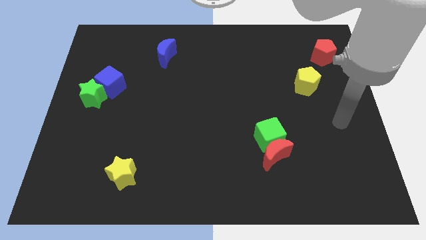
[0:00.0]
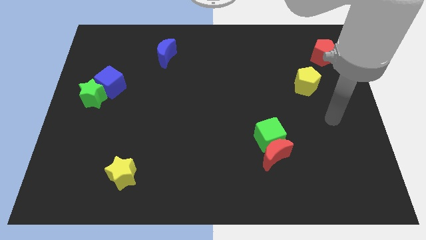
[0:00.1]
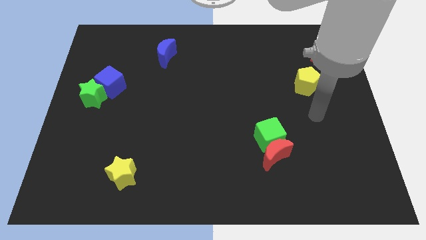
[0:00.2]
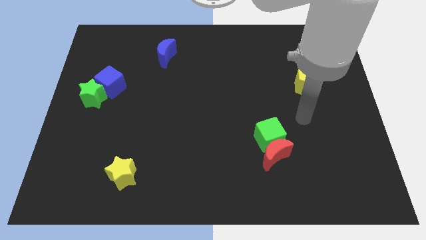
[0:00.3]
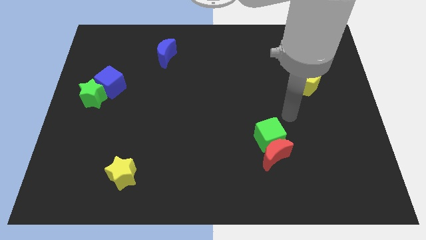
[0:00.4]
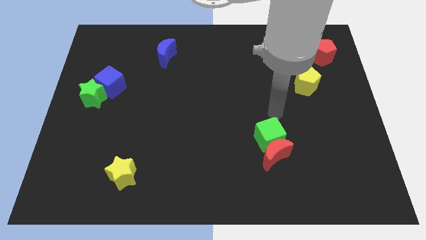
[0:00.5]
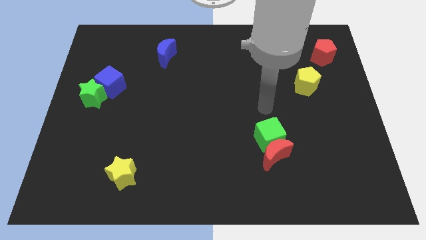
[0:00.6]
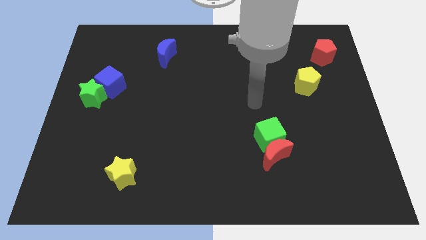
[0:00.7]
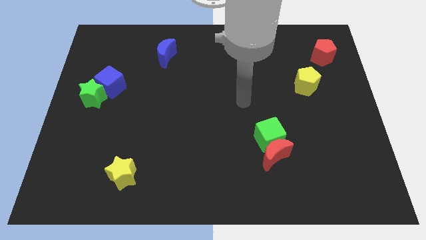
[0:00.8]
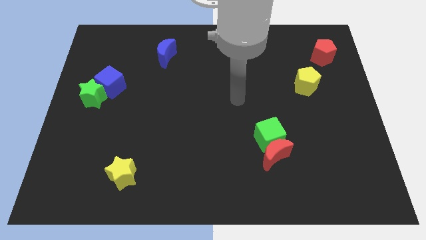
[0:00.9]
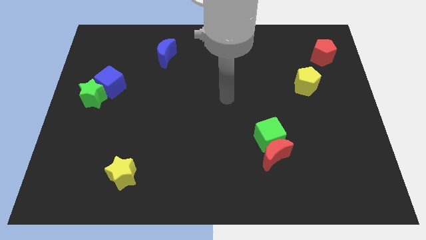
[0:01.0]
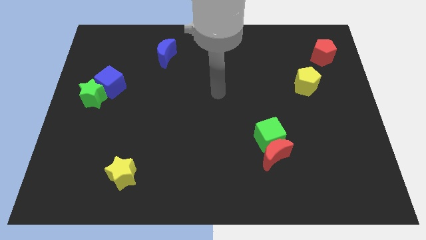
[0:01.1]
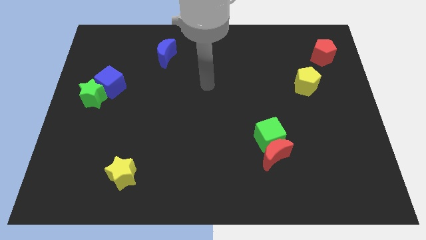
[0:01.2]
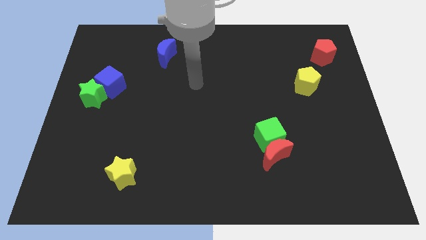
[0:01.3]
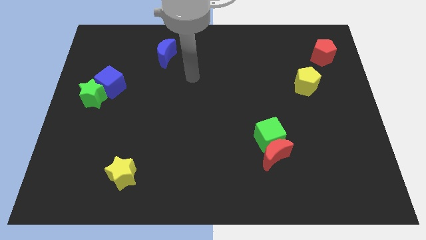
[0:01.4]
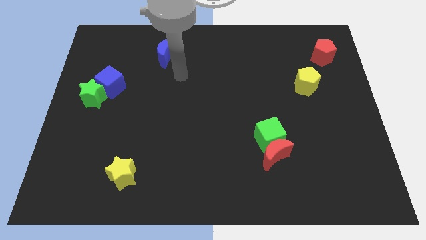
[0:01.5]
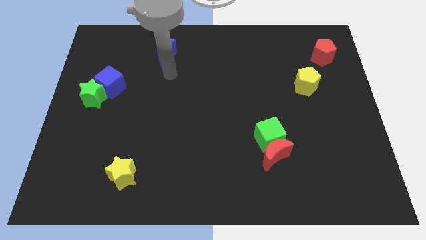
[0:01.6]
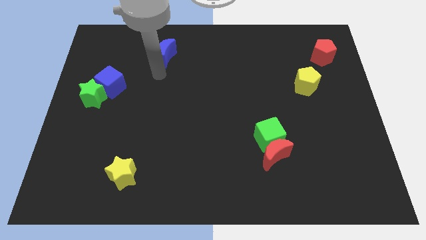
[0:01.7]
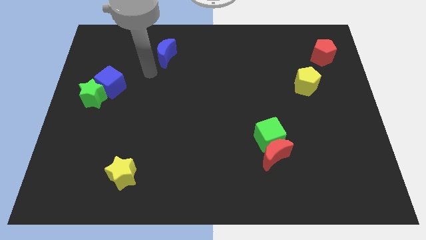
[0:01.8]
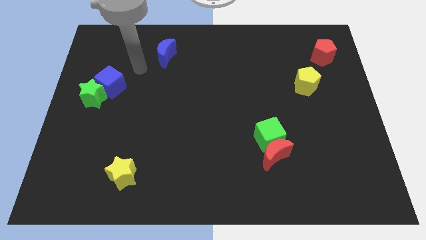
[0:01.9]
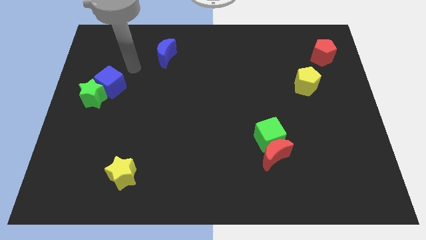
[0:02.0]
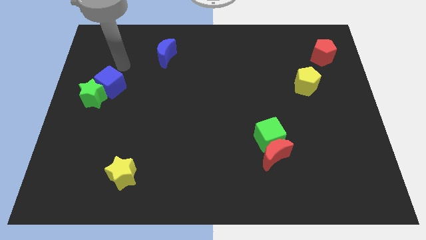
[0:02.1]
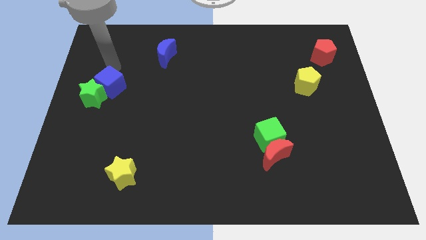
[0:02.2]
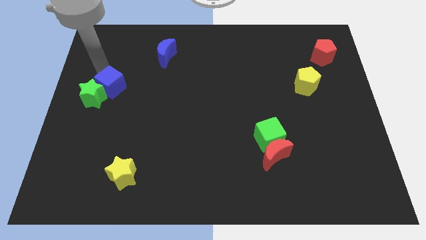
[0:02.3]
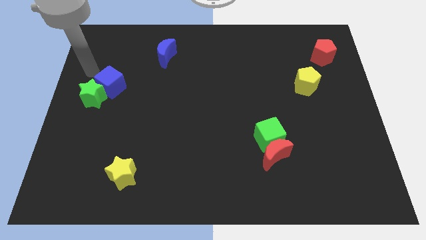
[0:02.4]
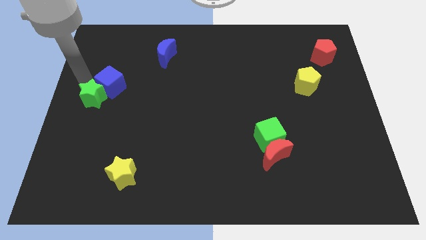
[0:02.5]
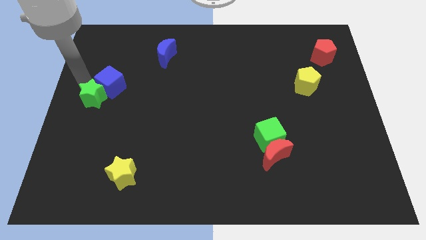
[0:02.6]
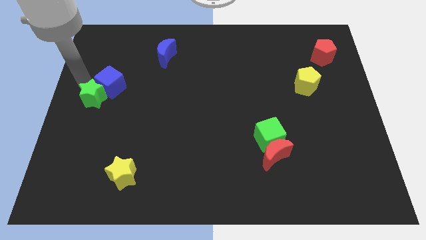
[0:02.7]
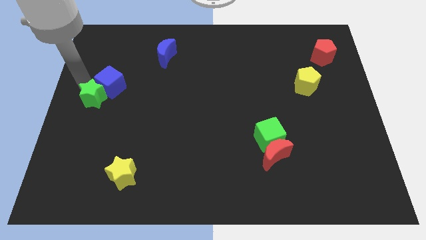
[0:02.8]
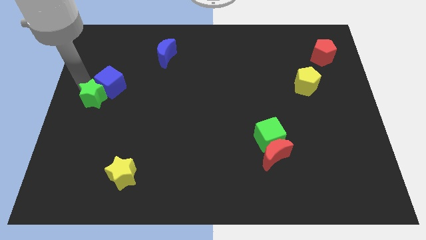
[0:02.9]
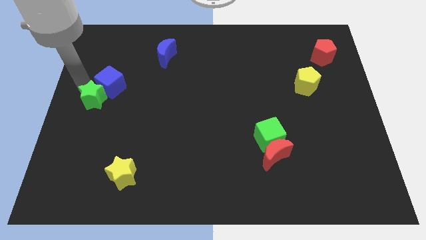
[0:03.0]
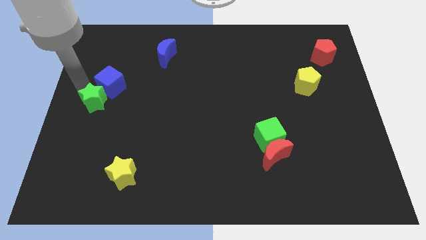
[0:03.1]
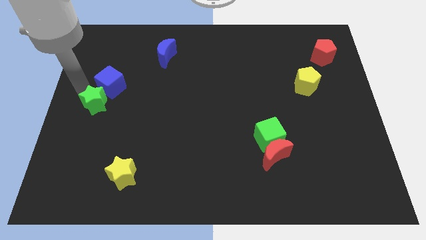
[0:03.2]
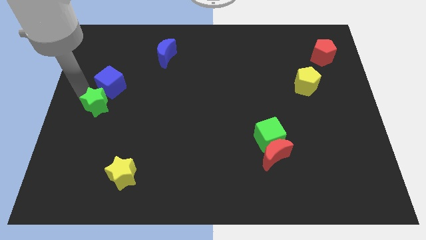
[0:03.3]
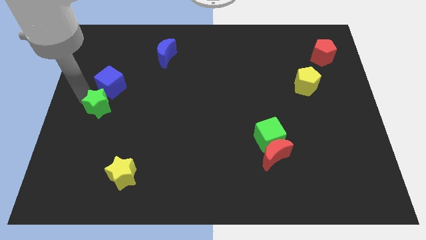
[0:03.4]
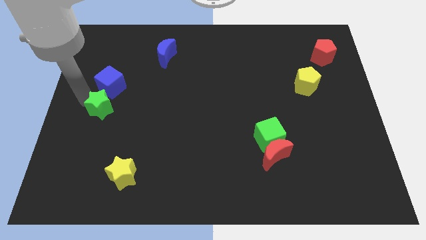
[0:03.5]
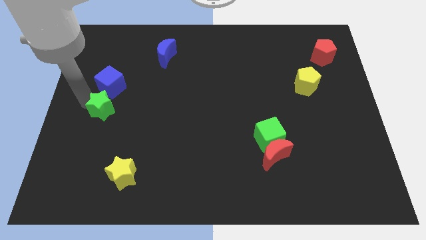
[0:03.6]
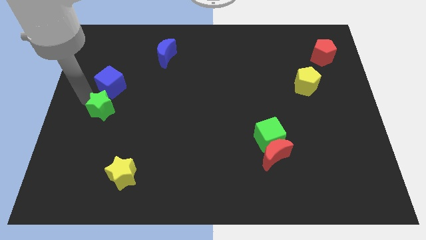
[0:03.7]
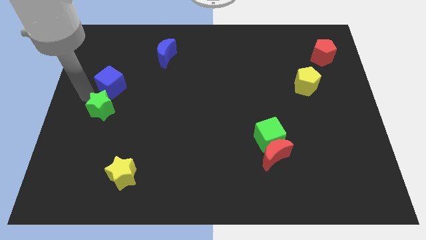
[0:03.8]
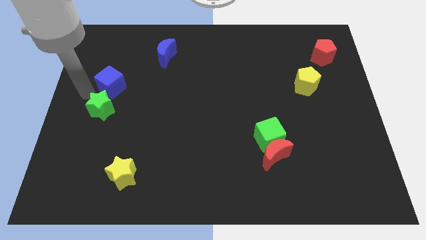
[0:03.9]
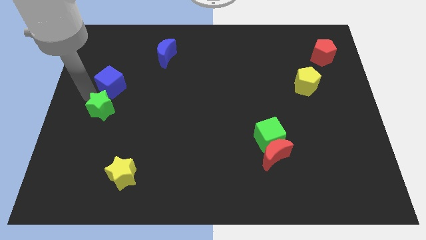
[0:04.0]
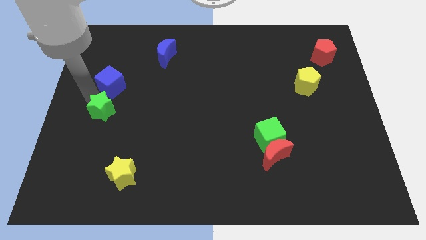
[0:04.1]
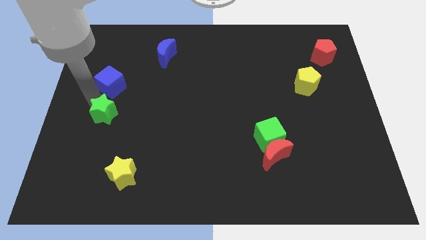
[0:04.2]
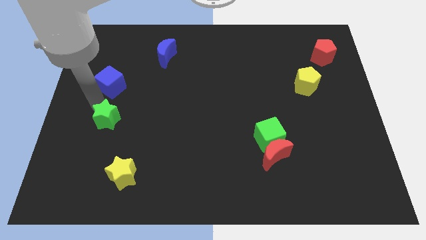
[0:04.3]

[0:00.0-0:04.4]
move the green star slightly downwards and right

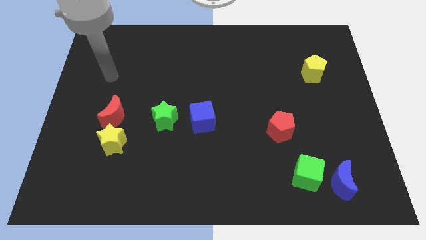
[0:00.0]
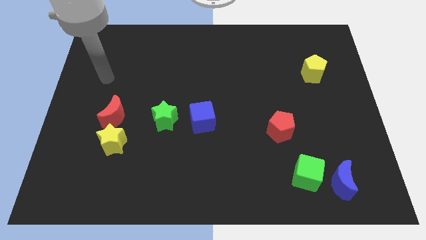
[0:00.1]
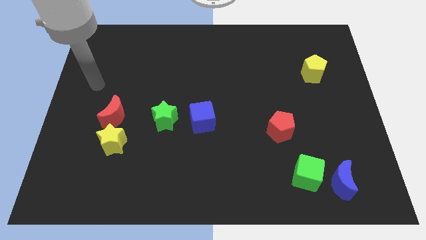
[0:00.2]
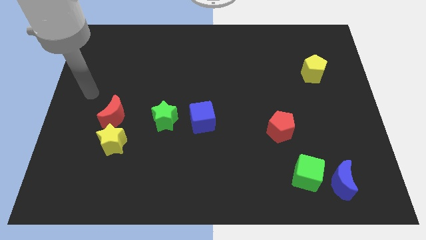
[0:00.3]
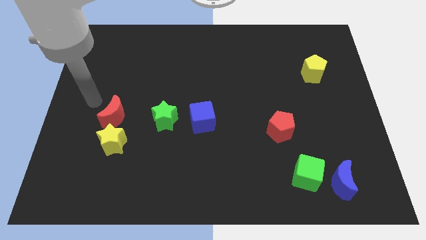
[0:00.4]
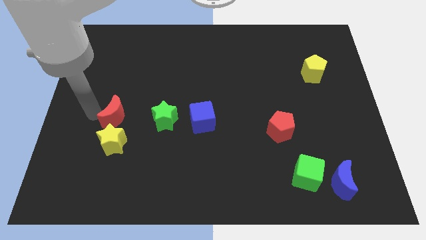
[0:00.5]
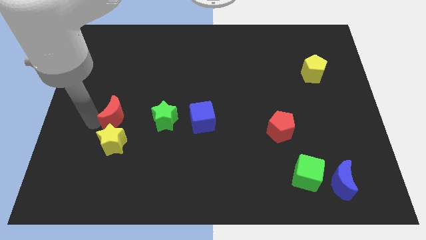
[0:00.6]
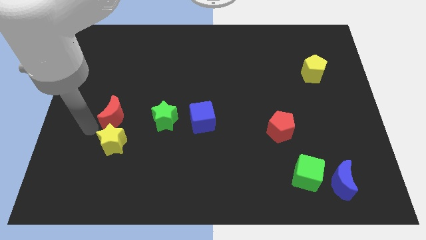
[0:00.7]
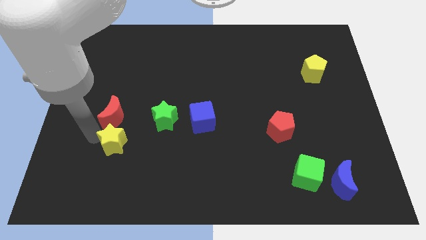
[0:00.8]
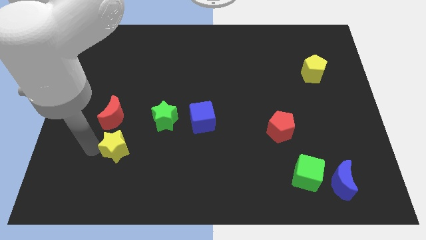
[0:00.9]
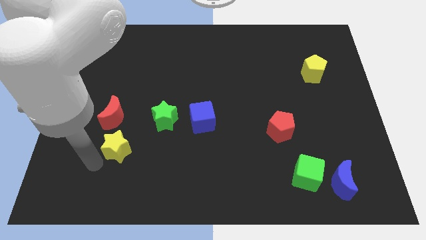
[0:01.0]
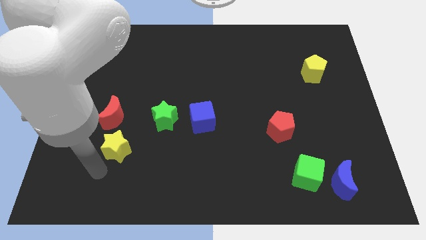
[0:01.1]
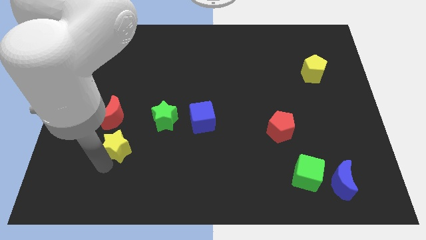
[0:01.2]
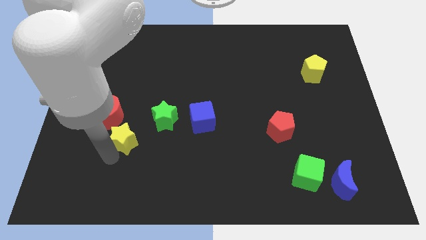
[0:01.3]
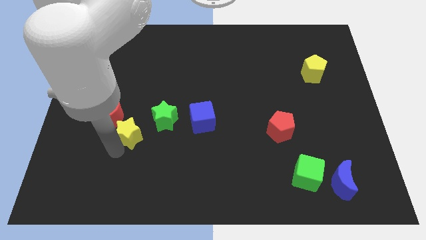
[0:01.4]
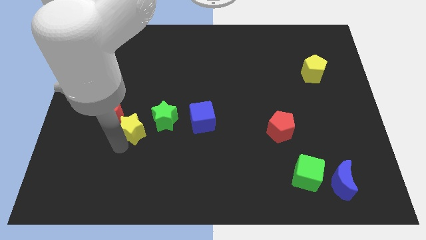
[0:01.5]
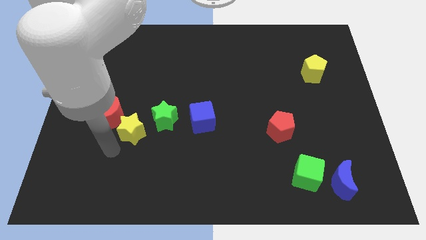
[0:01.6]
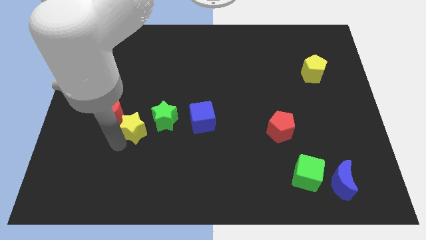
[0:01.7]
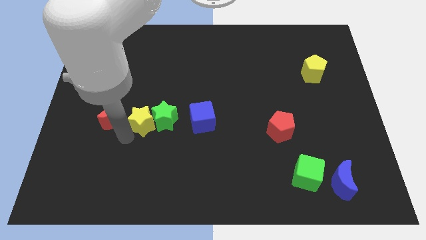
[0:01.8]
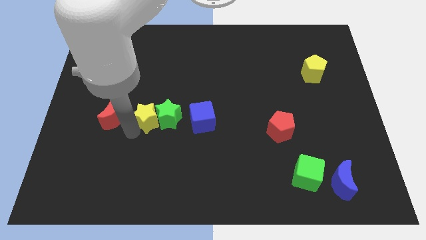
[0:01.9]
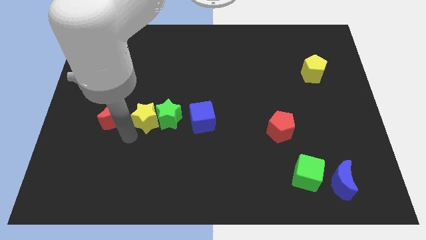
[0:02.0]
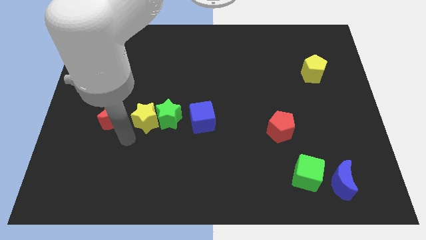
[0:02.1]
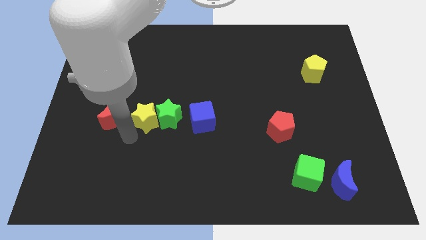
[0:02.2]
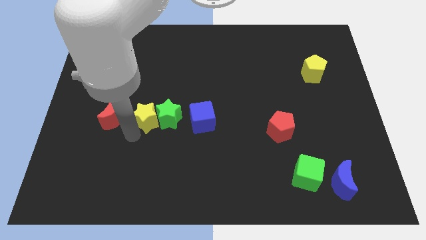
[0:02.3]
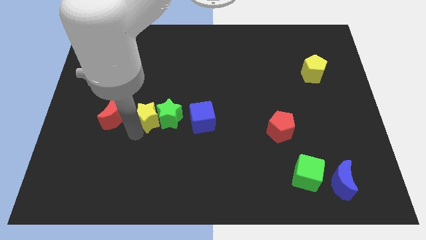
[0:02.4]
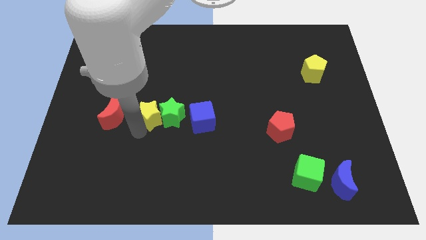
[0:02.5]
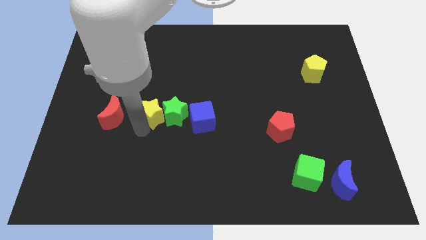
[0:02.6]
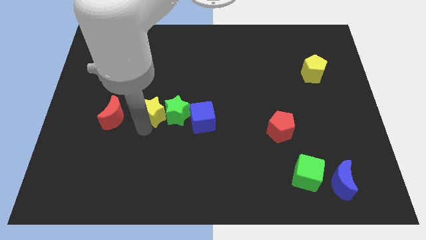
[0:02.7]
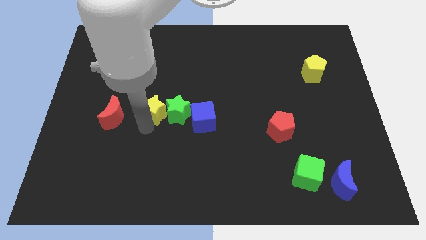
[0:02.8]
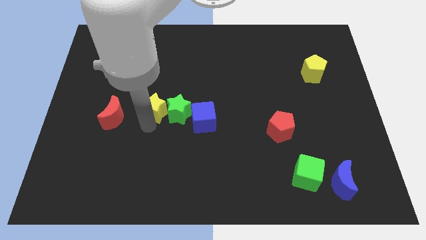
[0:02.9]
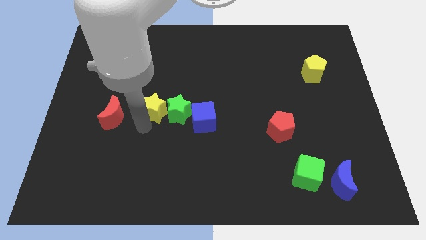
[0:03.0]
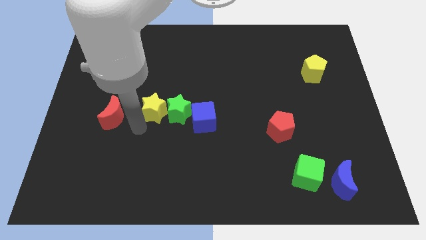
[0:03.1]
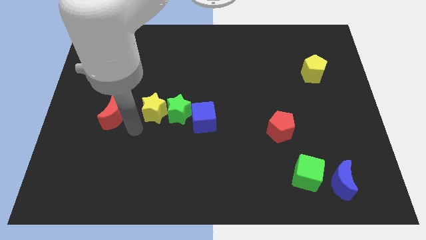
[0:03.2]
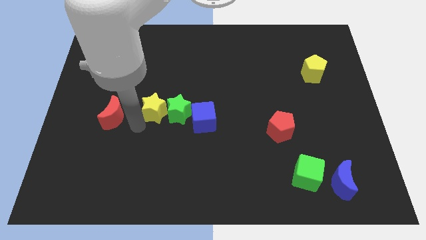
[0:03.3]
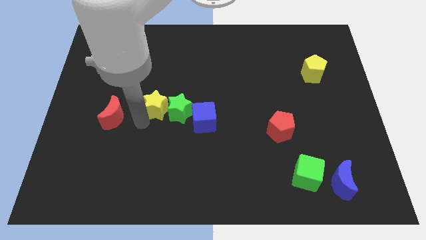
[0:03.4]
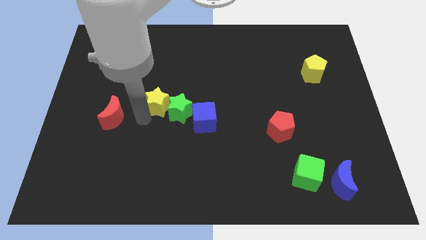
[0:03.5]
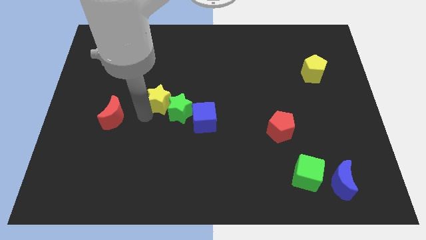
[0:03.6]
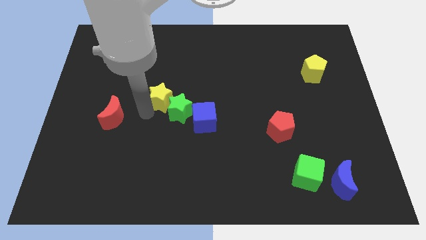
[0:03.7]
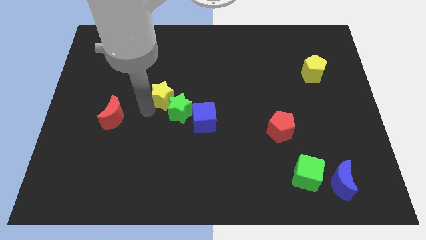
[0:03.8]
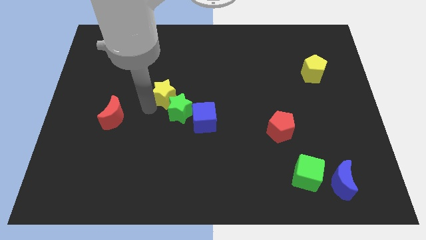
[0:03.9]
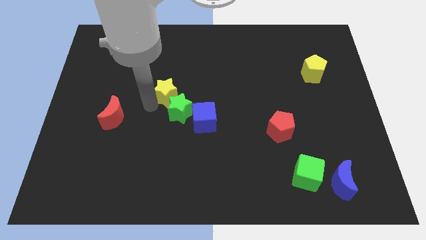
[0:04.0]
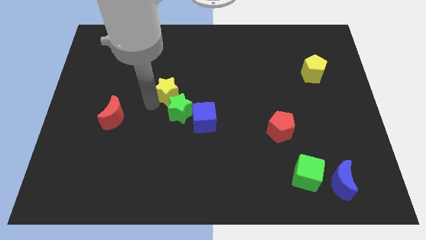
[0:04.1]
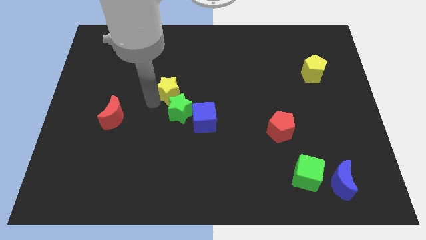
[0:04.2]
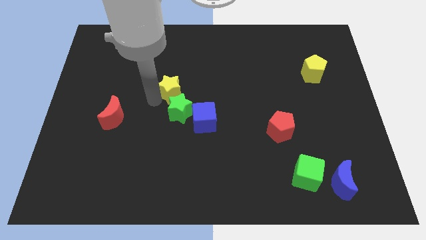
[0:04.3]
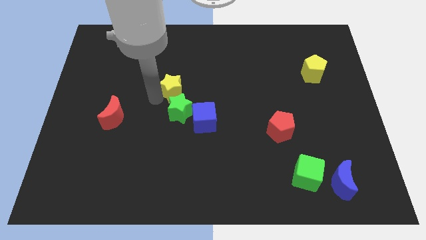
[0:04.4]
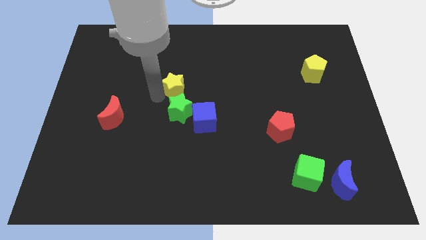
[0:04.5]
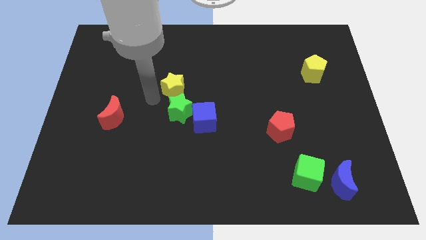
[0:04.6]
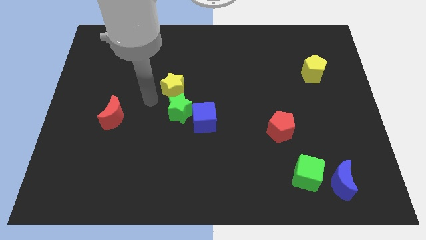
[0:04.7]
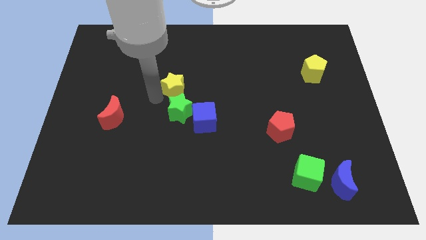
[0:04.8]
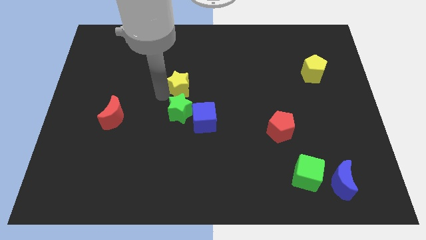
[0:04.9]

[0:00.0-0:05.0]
push the yellow star diagonally up and to the right
